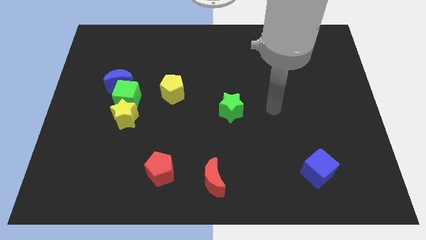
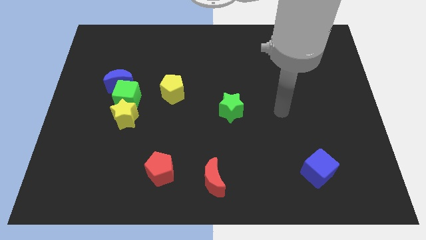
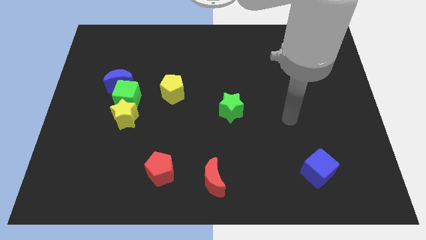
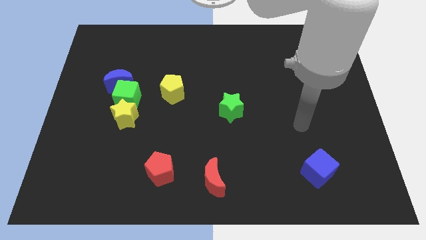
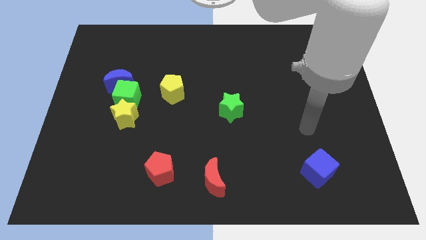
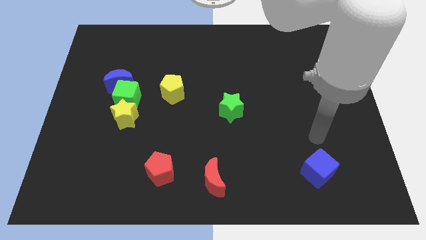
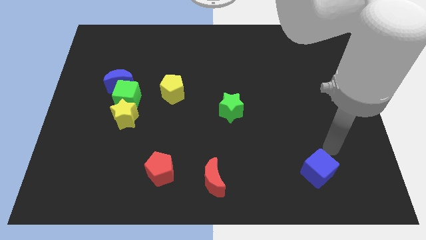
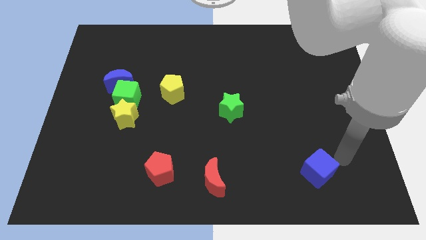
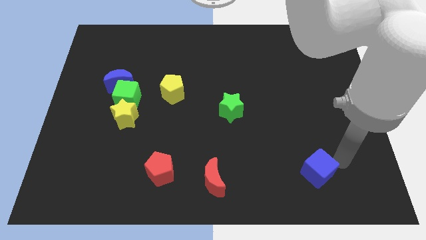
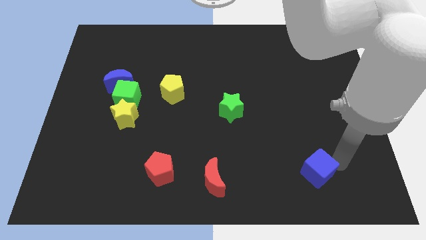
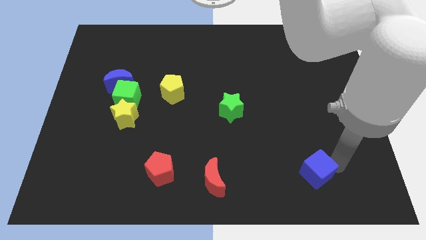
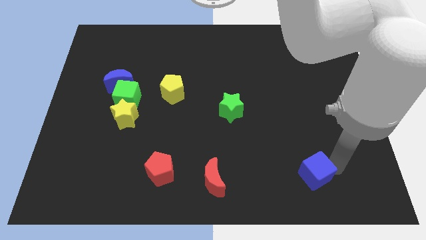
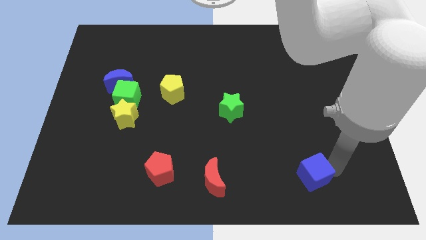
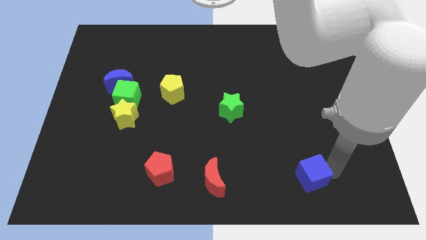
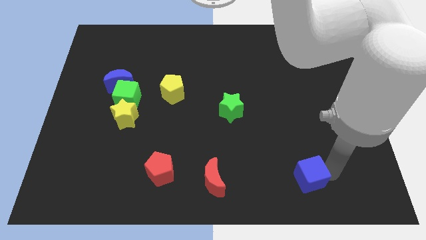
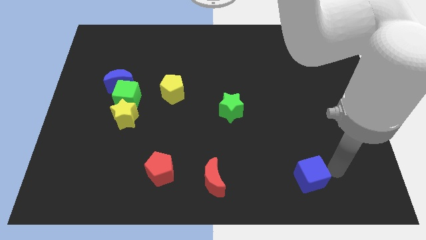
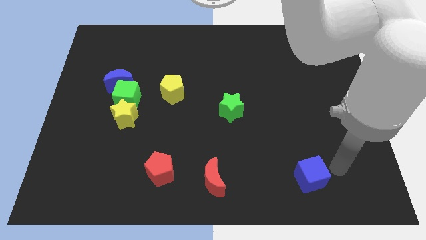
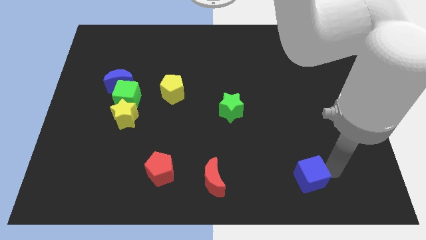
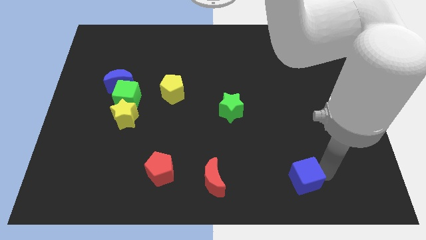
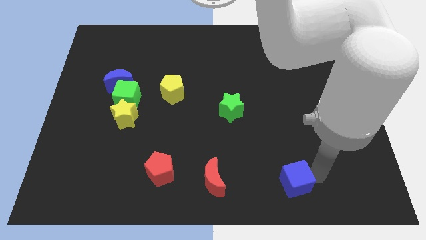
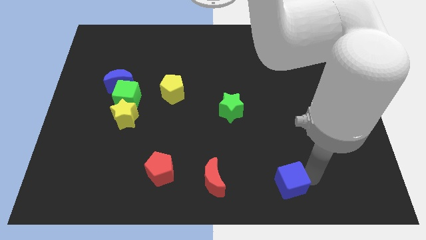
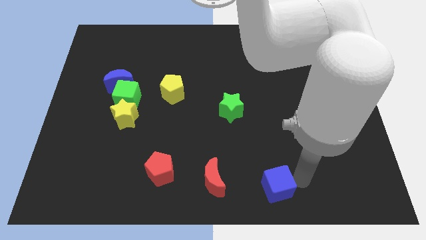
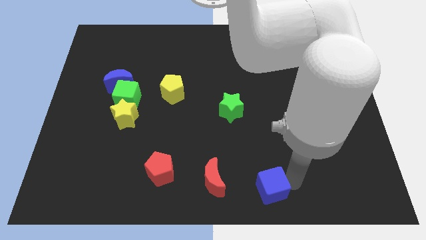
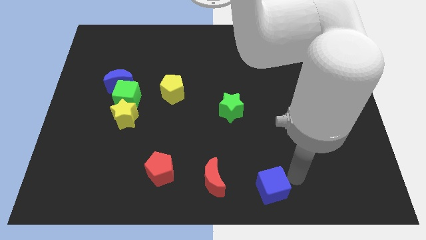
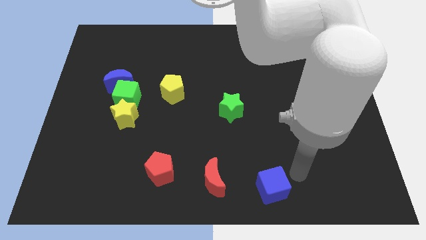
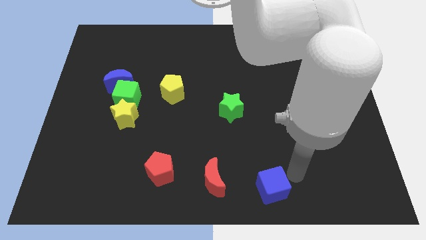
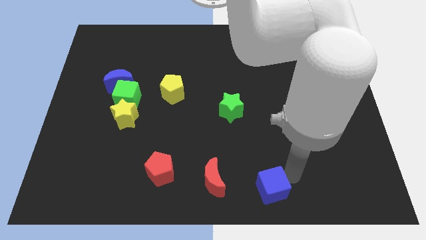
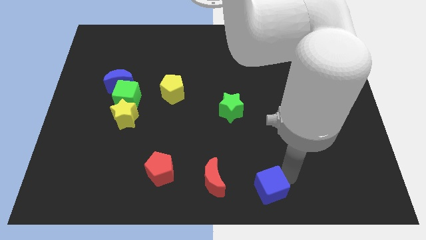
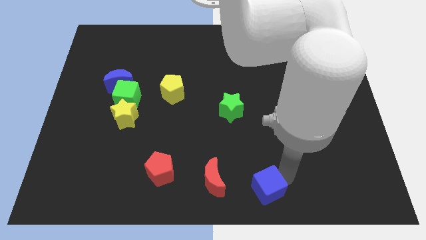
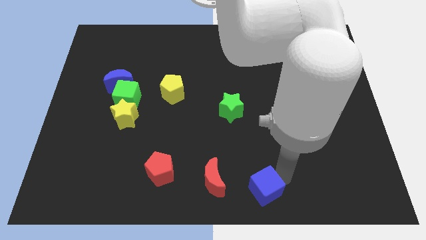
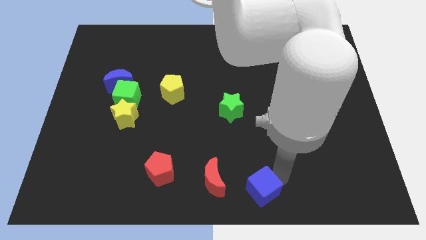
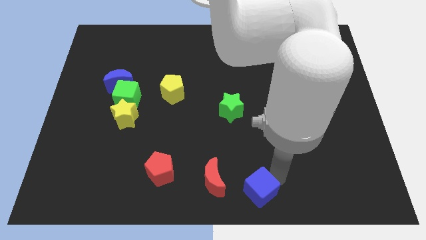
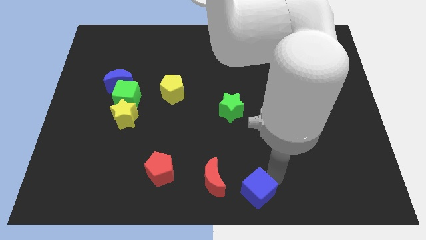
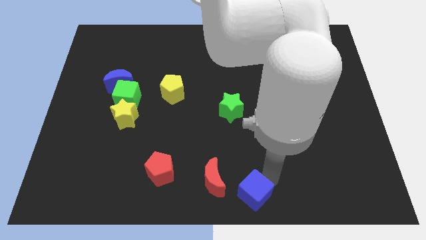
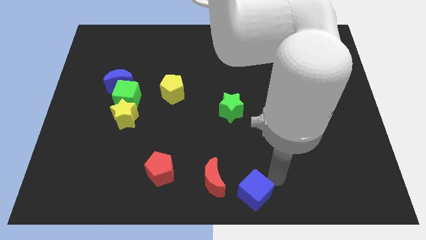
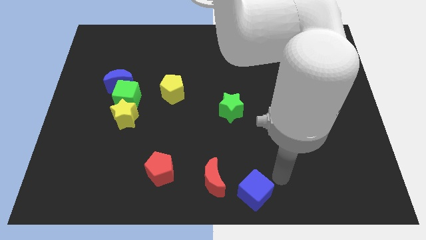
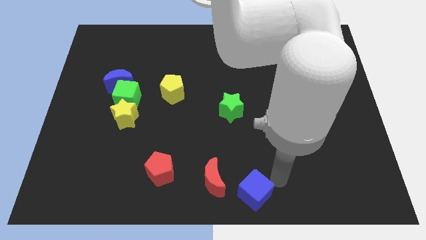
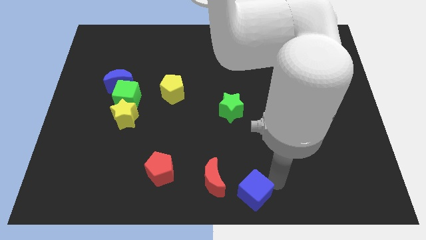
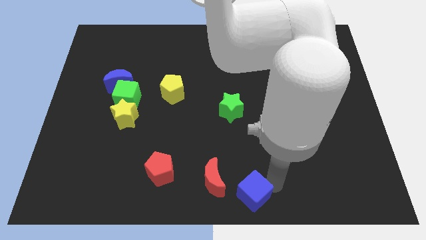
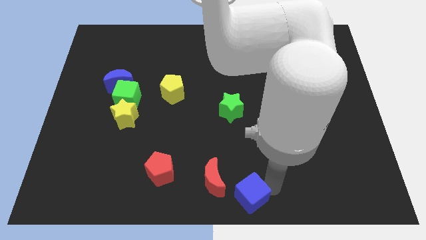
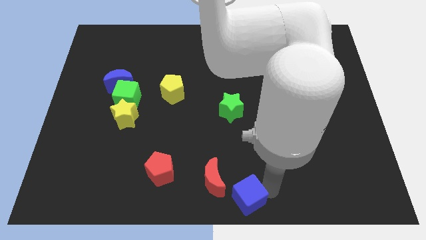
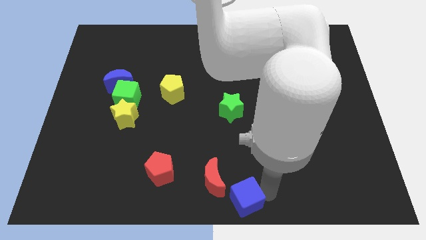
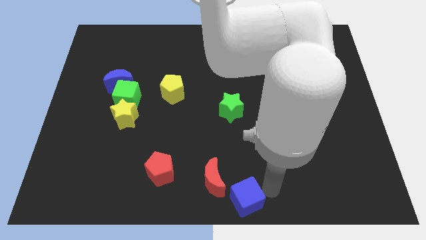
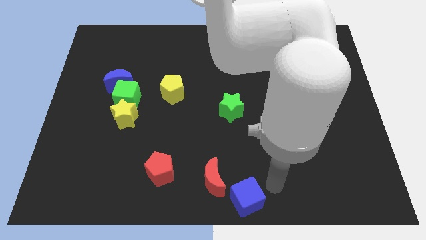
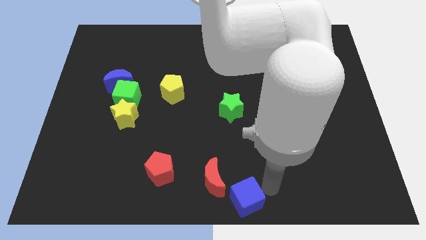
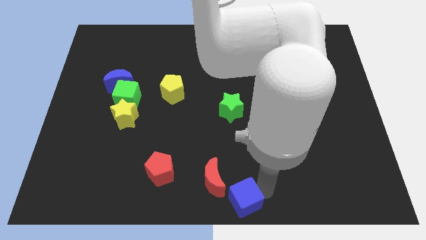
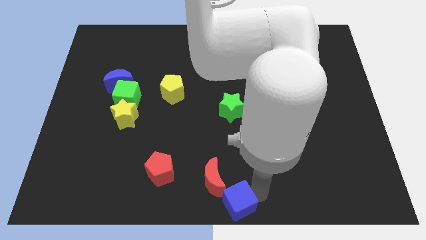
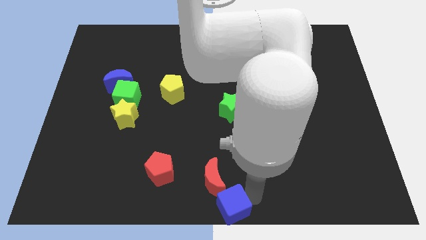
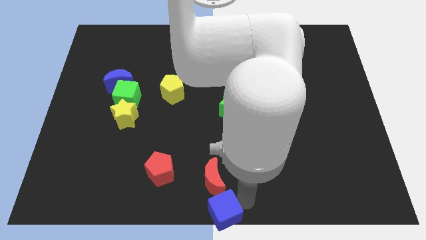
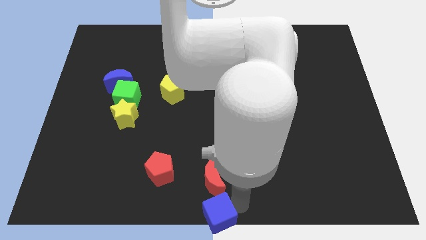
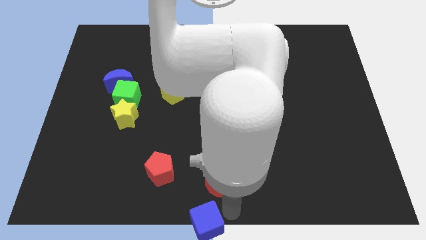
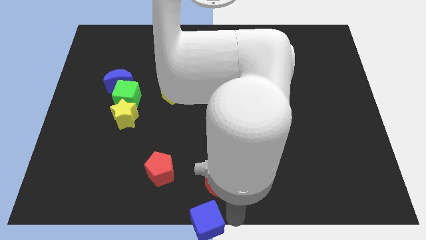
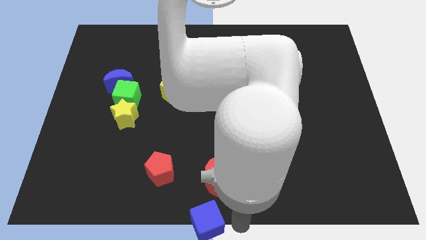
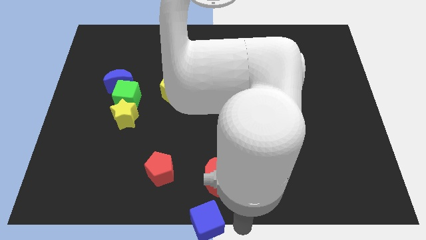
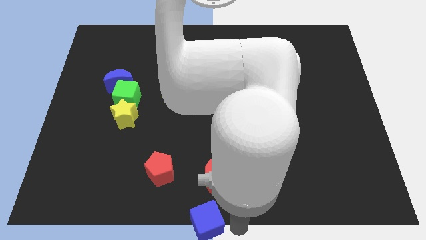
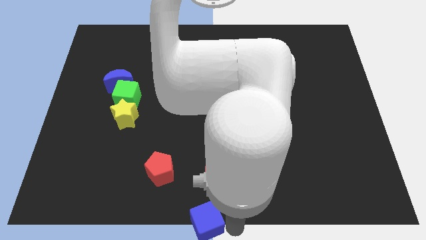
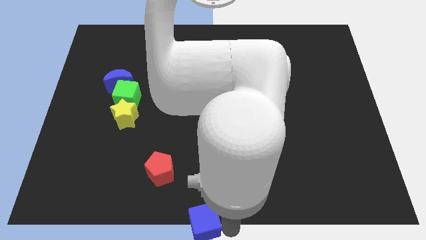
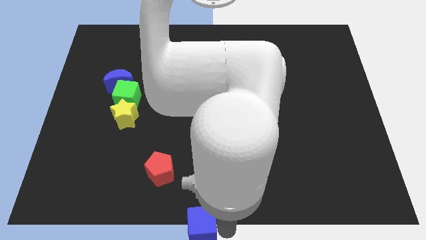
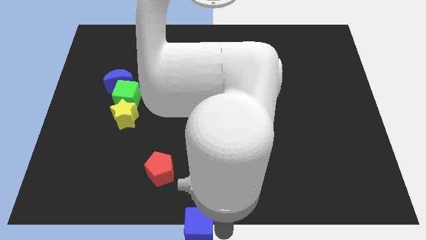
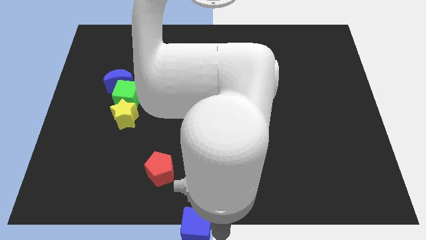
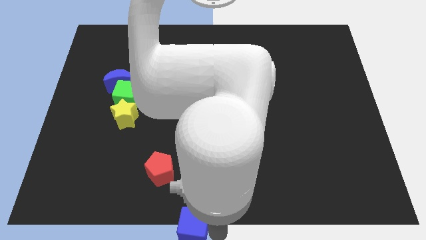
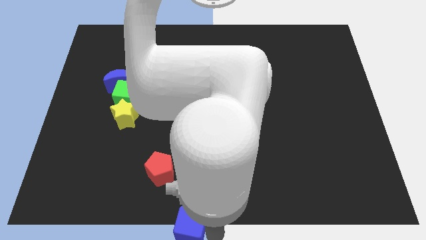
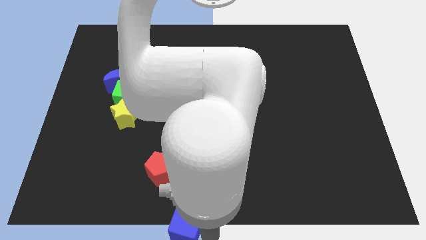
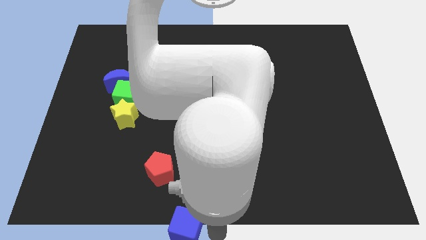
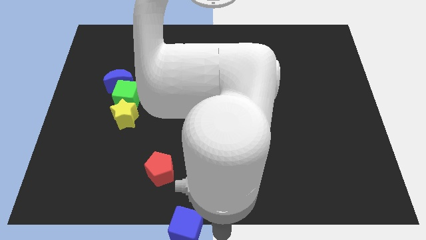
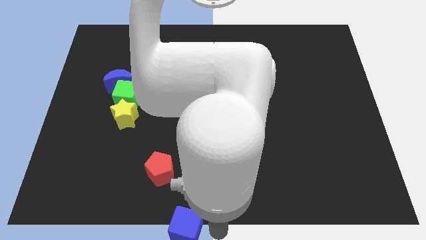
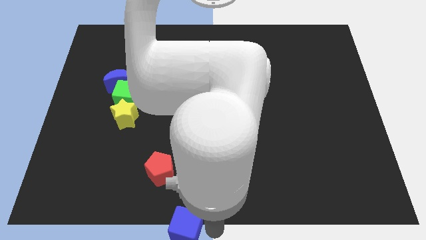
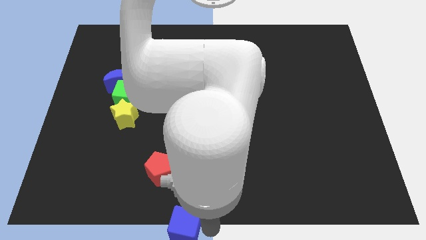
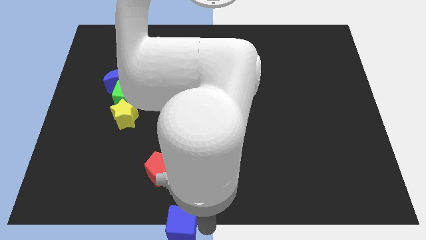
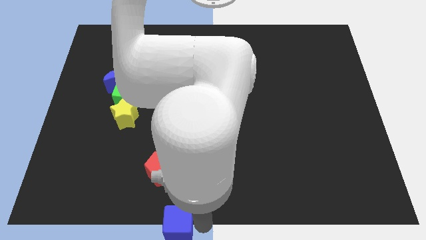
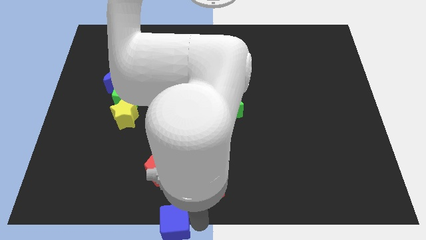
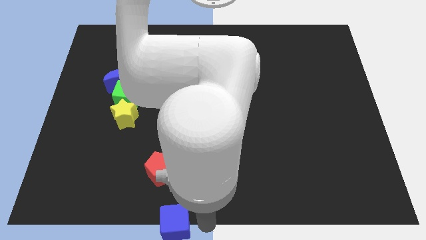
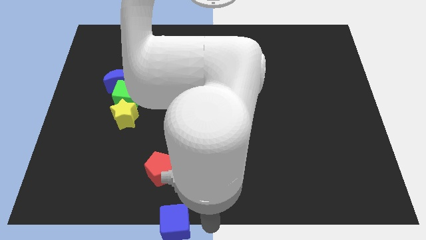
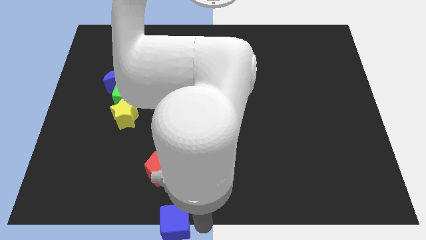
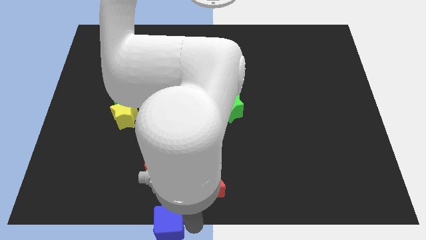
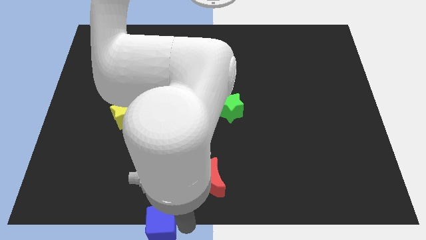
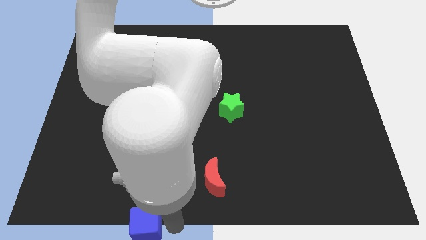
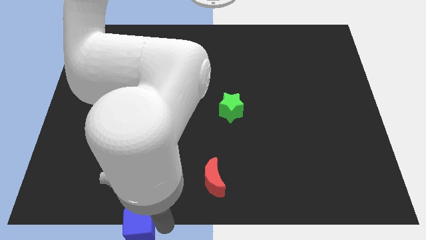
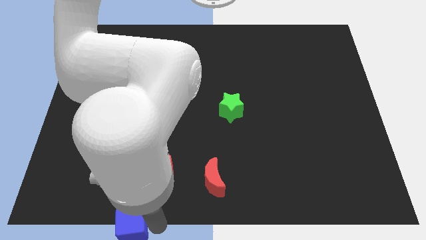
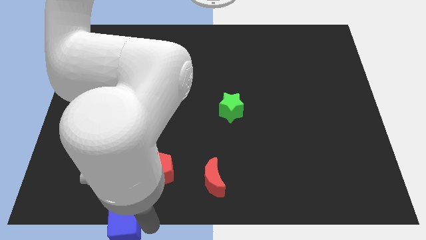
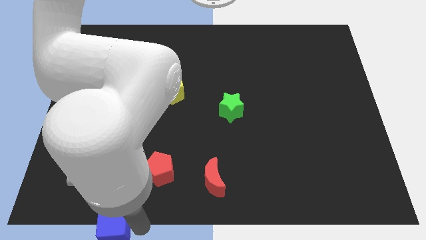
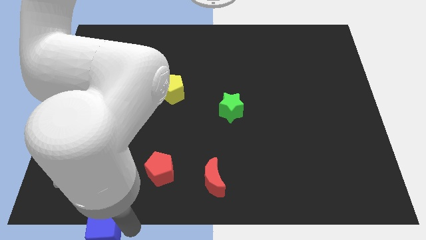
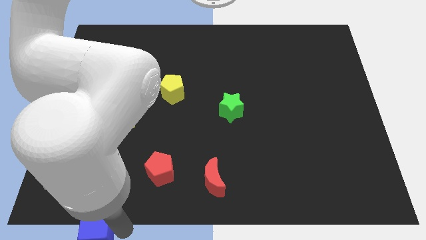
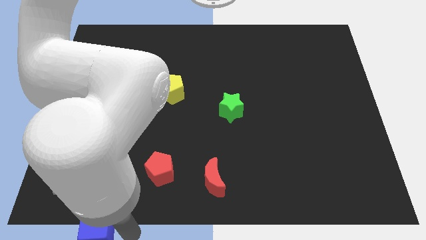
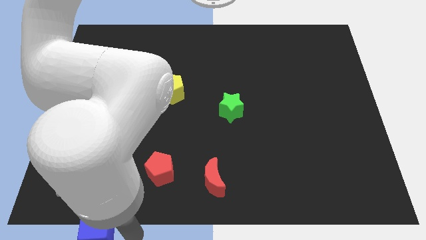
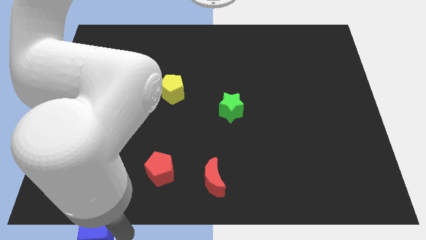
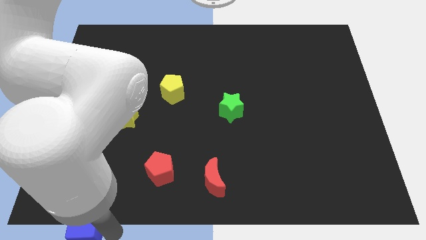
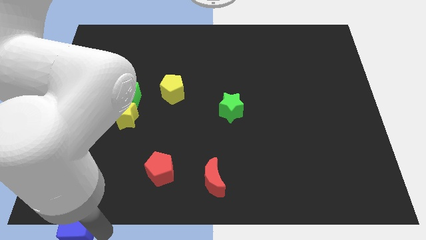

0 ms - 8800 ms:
push the blue cube to the bottom left of the board
